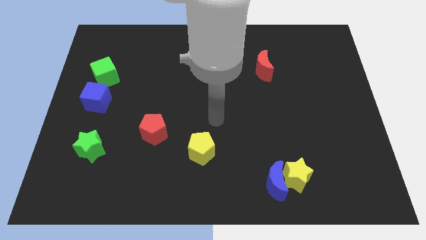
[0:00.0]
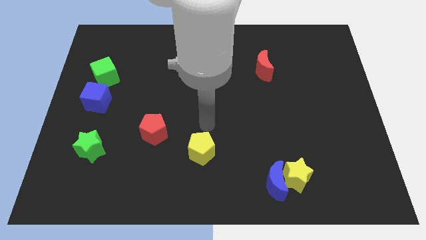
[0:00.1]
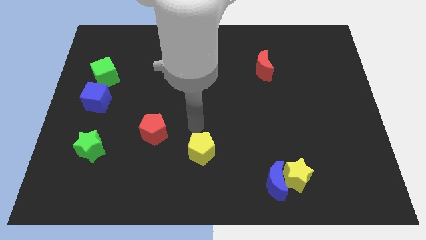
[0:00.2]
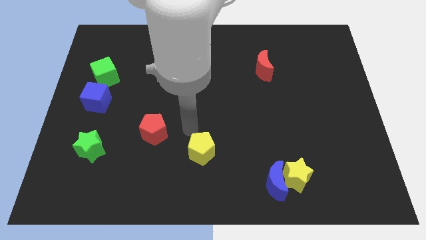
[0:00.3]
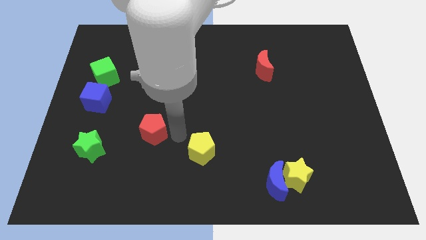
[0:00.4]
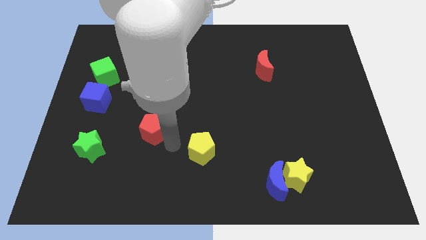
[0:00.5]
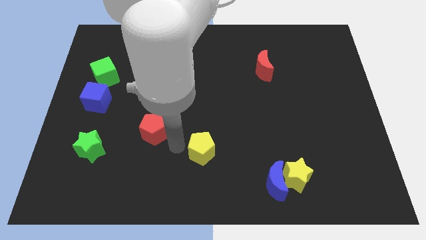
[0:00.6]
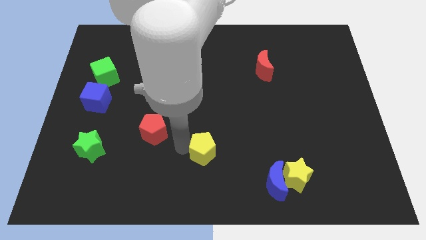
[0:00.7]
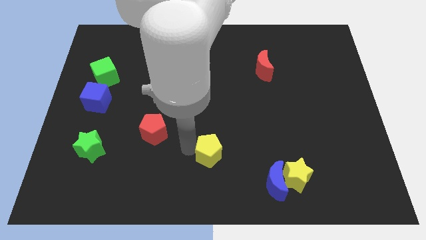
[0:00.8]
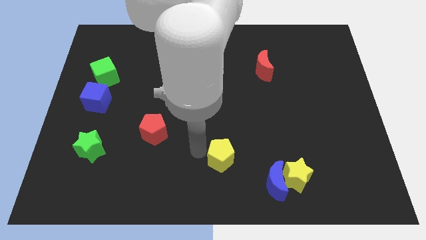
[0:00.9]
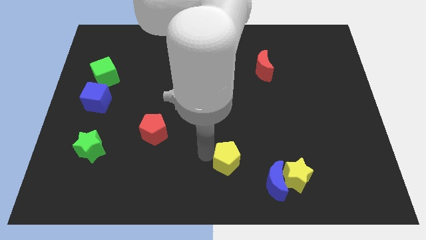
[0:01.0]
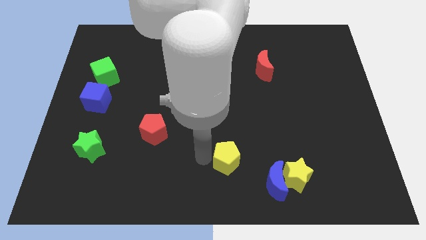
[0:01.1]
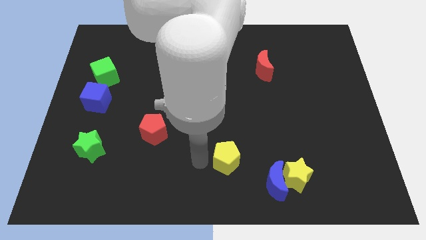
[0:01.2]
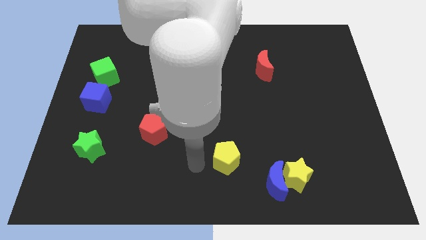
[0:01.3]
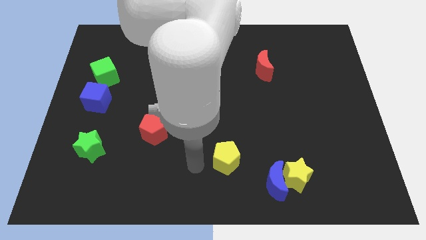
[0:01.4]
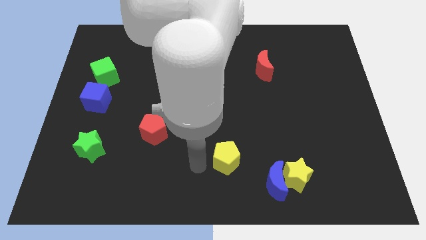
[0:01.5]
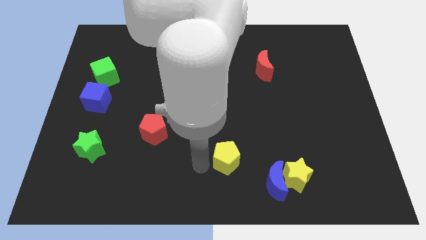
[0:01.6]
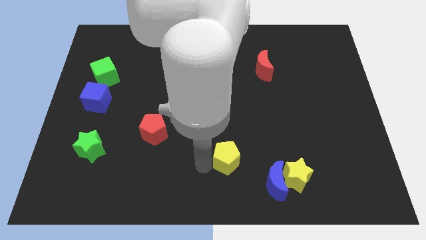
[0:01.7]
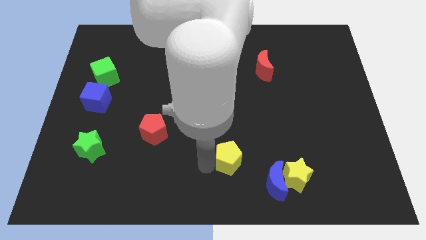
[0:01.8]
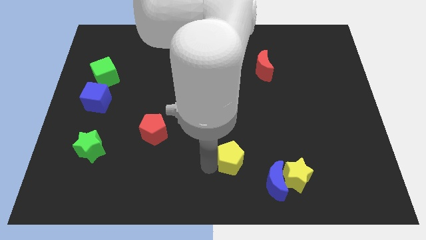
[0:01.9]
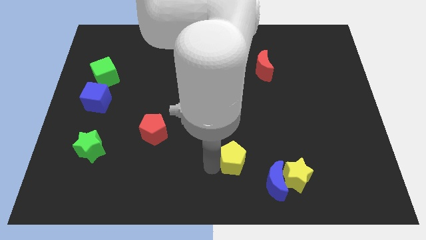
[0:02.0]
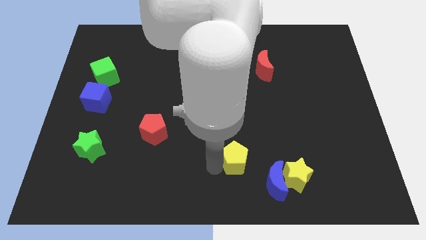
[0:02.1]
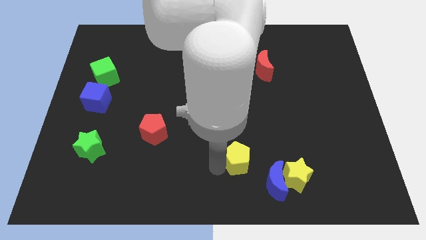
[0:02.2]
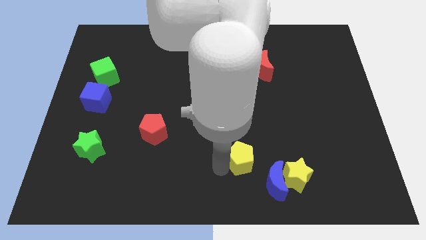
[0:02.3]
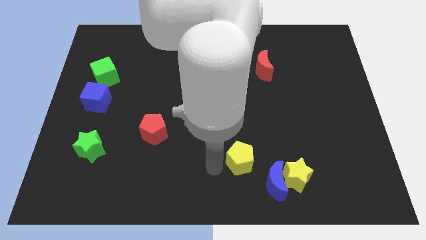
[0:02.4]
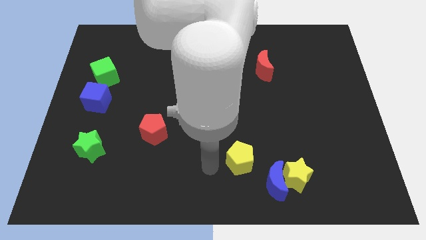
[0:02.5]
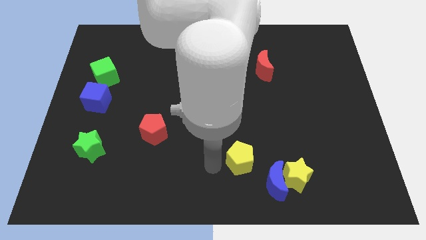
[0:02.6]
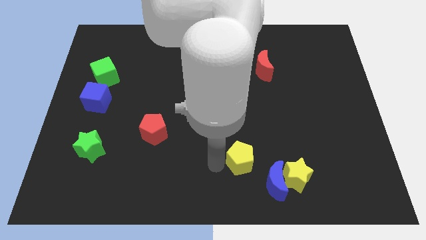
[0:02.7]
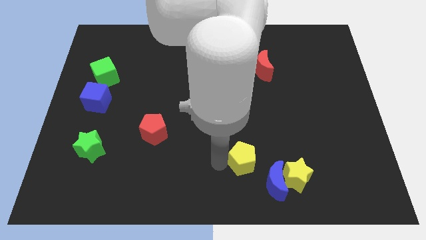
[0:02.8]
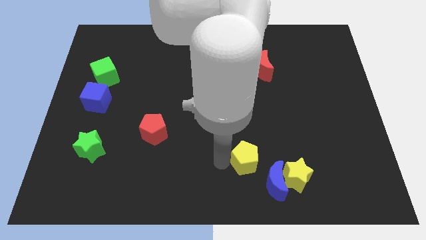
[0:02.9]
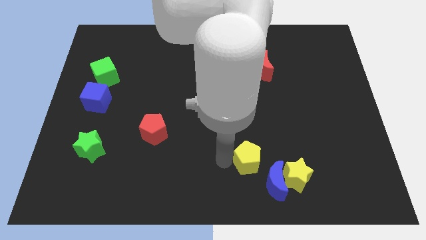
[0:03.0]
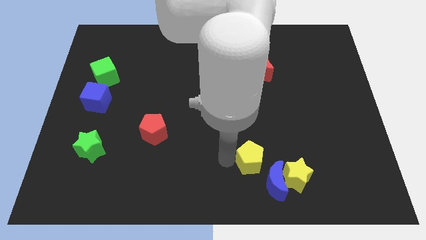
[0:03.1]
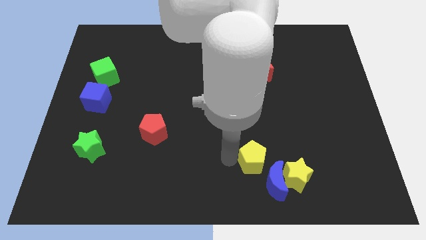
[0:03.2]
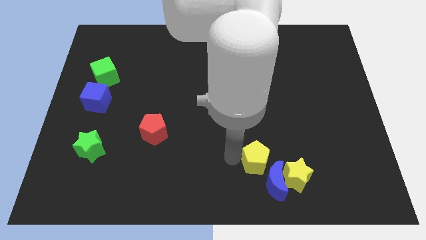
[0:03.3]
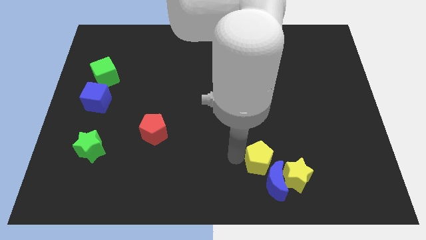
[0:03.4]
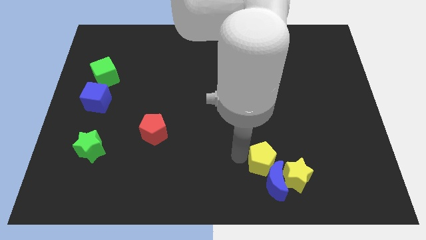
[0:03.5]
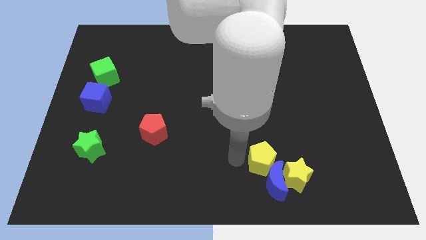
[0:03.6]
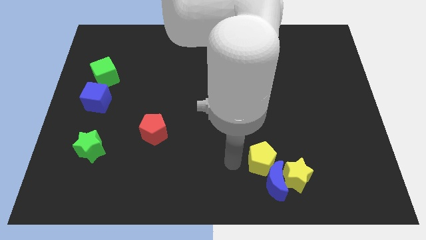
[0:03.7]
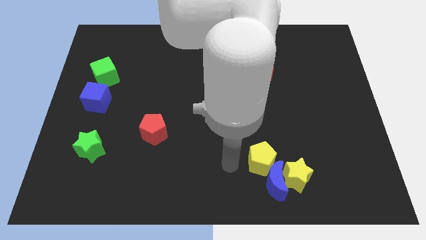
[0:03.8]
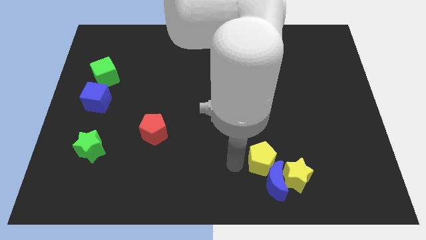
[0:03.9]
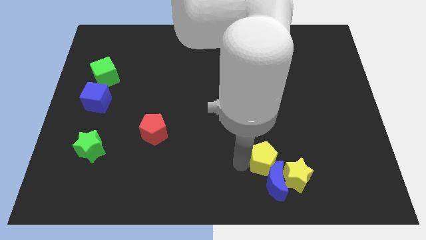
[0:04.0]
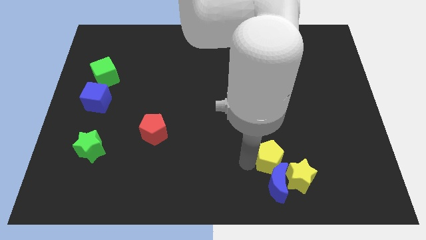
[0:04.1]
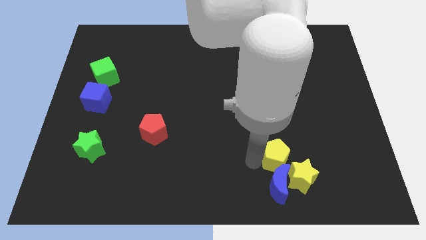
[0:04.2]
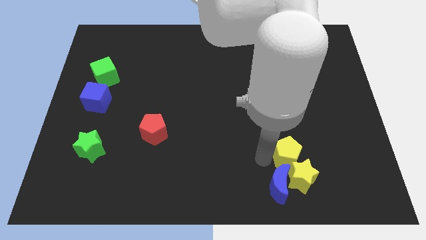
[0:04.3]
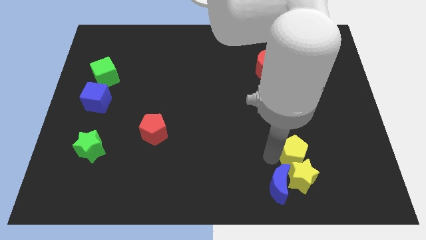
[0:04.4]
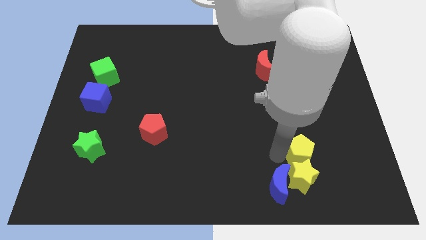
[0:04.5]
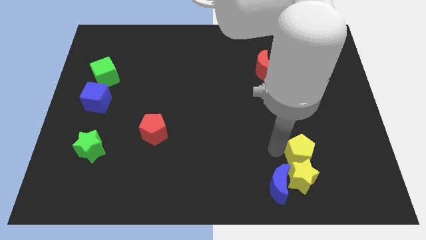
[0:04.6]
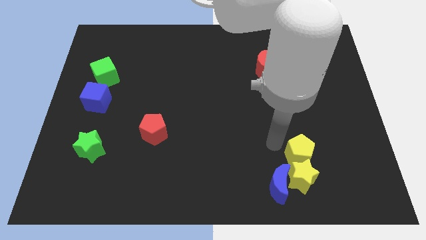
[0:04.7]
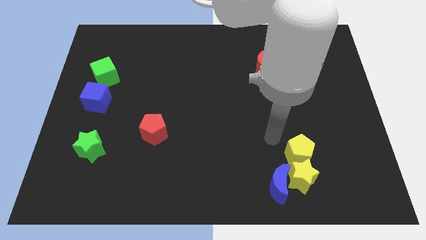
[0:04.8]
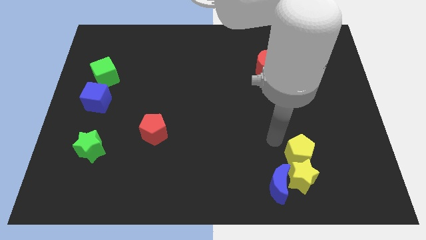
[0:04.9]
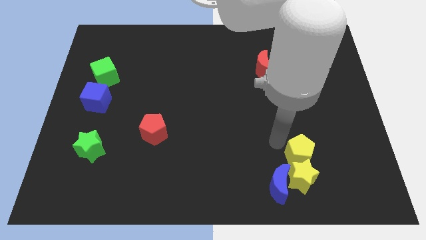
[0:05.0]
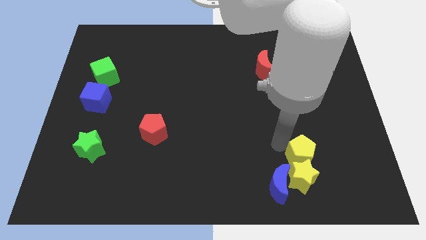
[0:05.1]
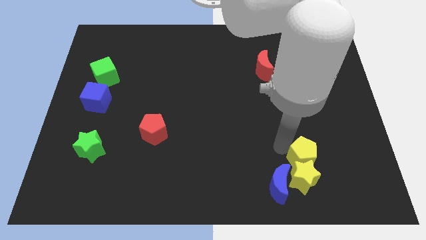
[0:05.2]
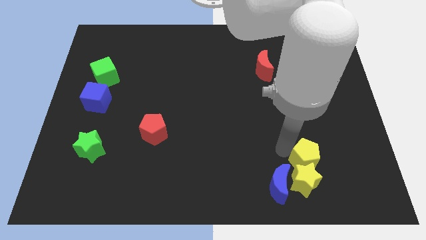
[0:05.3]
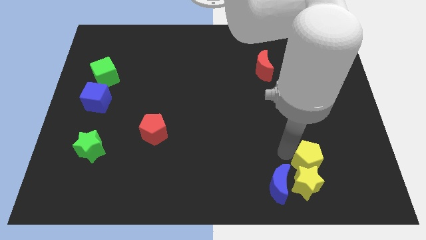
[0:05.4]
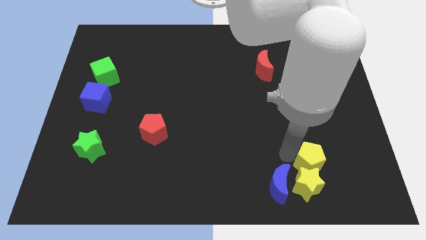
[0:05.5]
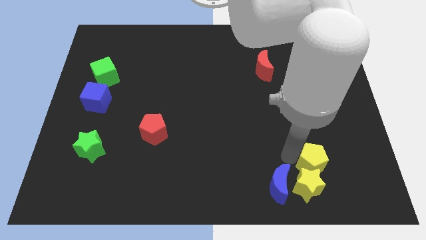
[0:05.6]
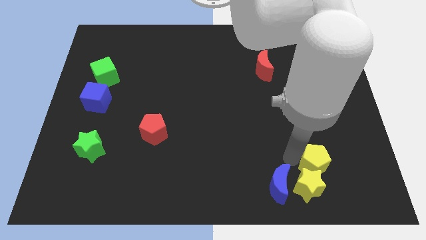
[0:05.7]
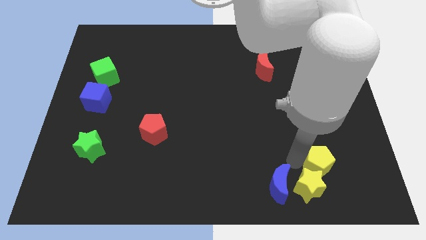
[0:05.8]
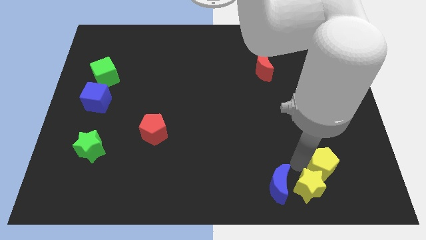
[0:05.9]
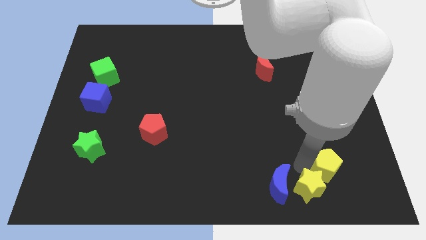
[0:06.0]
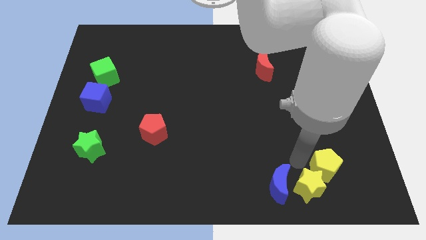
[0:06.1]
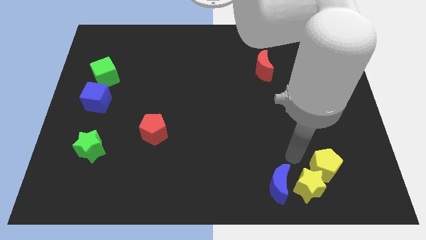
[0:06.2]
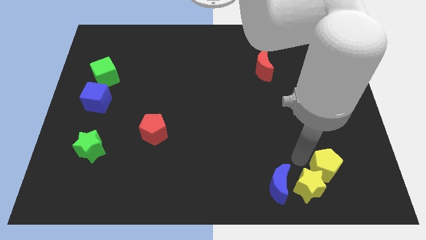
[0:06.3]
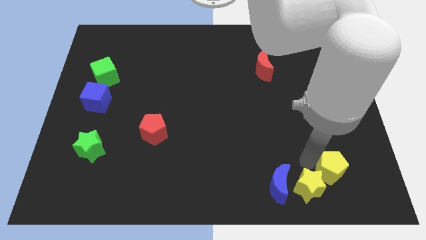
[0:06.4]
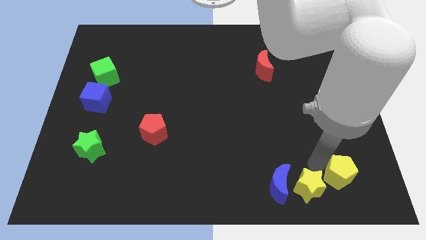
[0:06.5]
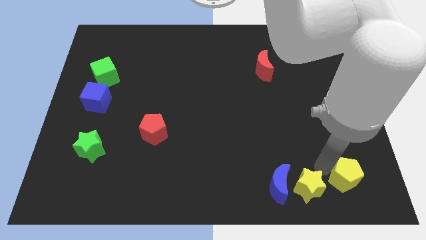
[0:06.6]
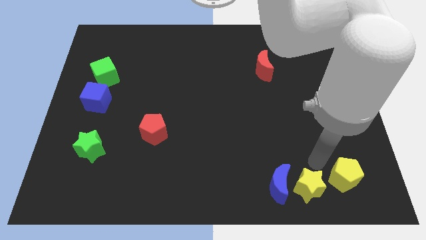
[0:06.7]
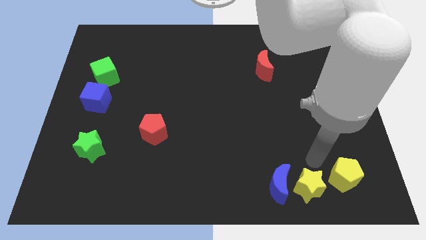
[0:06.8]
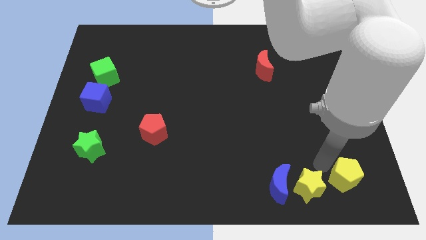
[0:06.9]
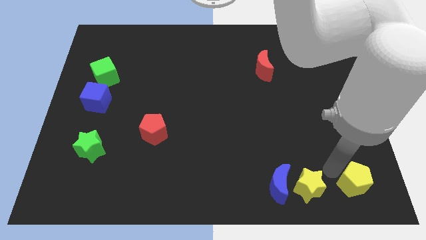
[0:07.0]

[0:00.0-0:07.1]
slide the yellow pentagon to the bottom right corner
